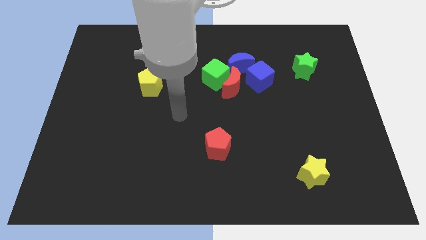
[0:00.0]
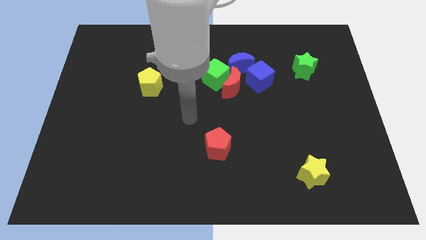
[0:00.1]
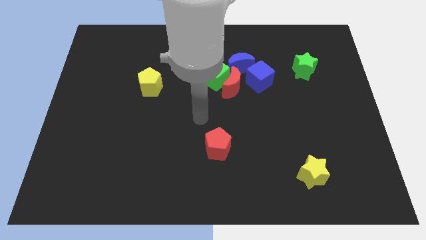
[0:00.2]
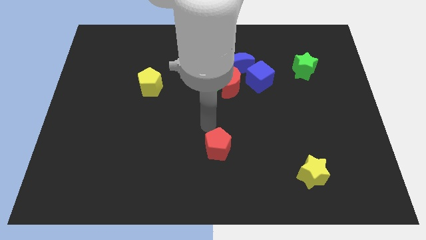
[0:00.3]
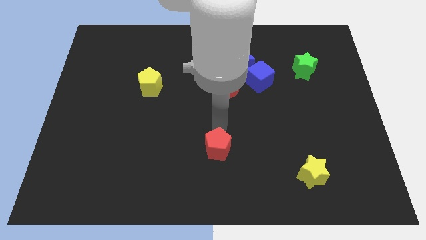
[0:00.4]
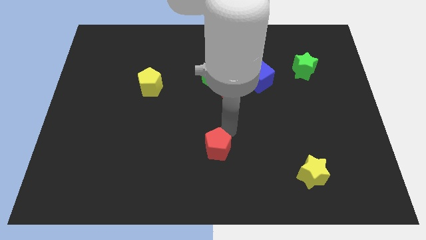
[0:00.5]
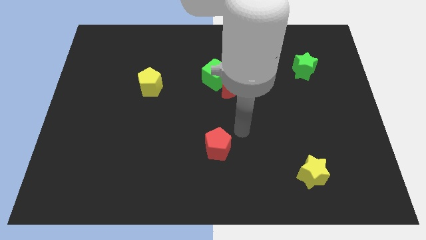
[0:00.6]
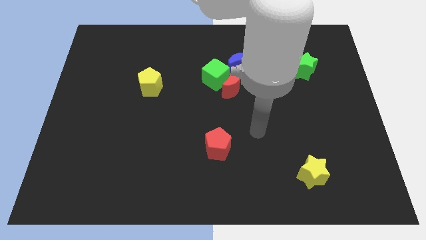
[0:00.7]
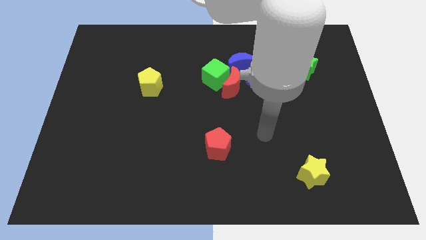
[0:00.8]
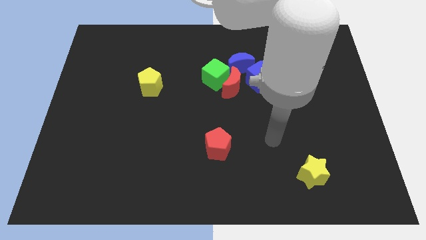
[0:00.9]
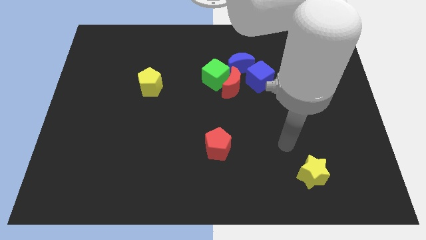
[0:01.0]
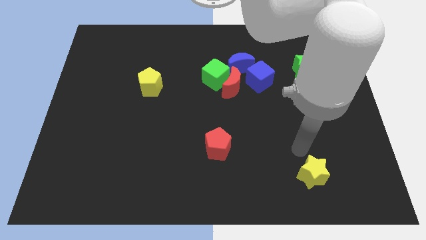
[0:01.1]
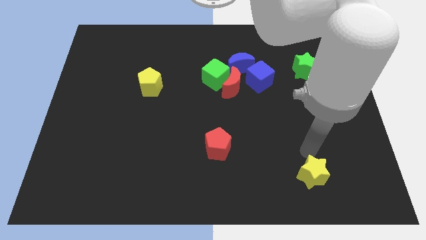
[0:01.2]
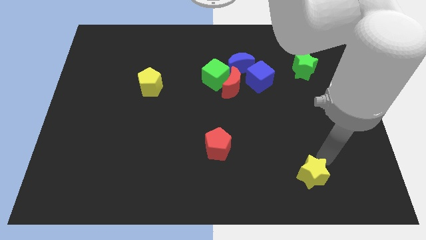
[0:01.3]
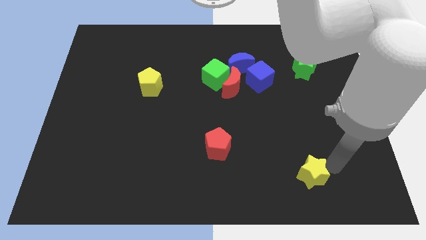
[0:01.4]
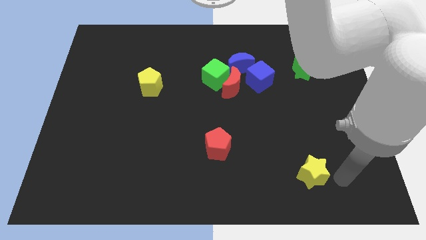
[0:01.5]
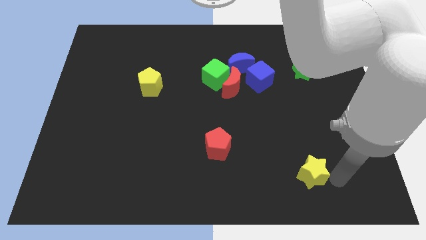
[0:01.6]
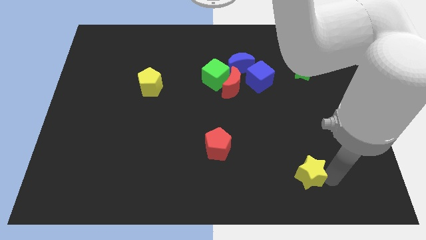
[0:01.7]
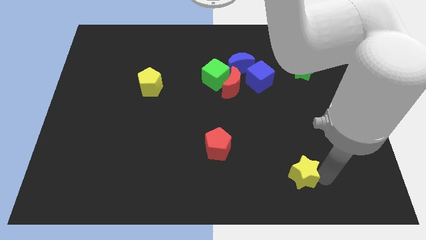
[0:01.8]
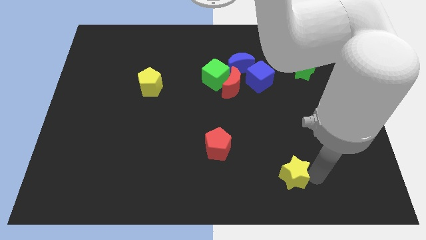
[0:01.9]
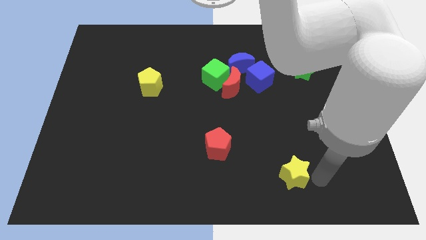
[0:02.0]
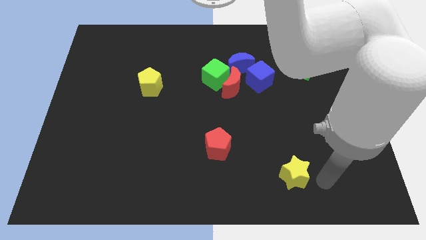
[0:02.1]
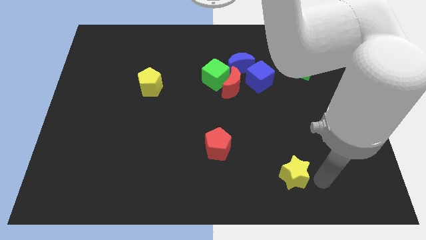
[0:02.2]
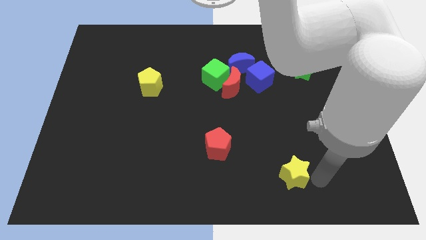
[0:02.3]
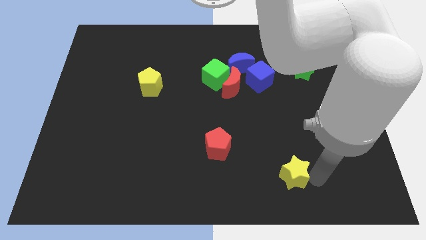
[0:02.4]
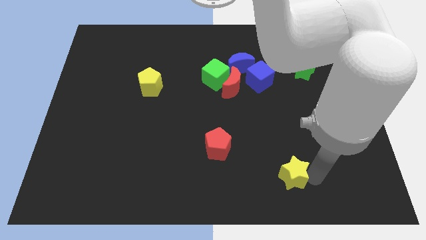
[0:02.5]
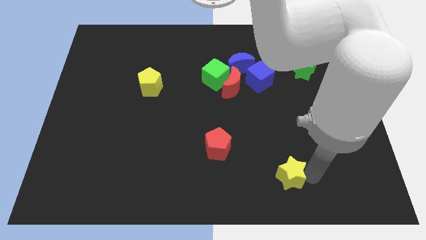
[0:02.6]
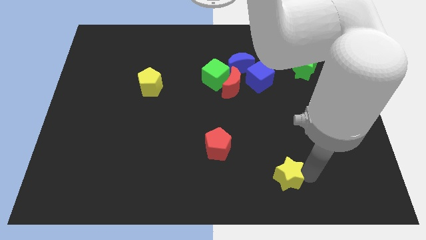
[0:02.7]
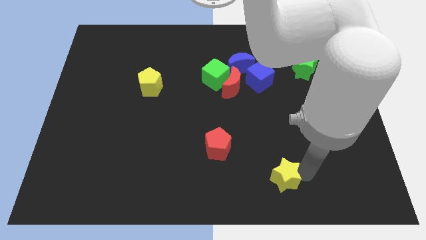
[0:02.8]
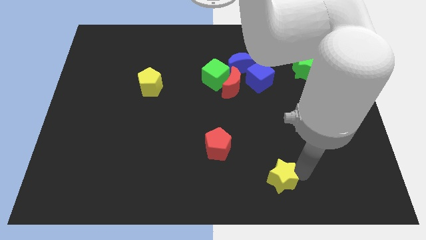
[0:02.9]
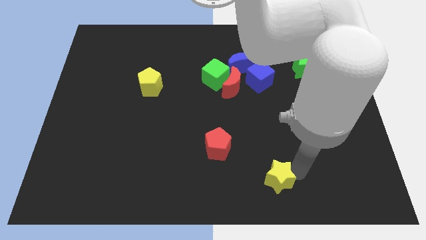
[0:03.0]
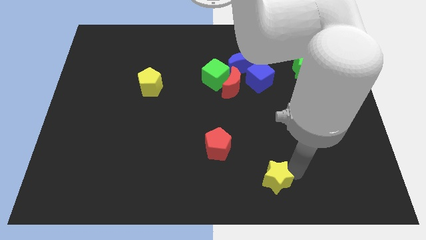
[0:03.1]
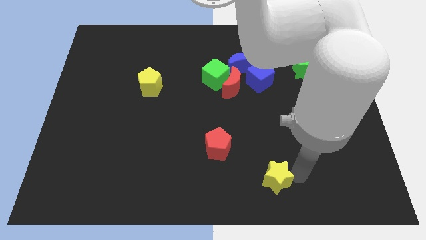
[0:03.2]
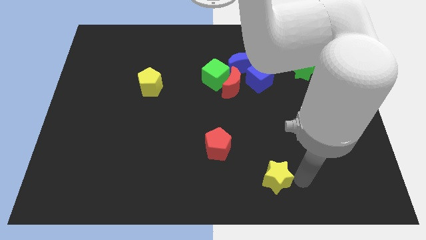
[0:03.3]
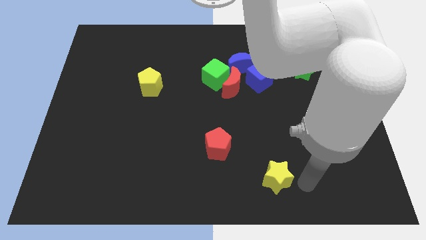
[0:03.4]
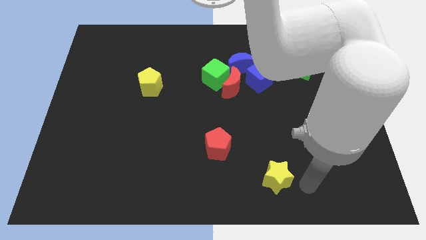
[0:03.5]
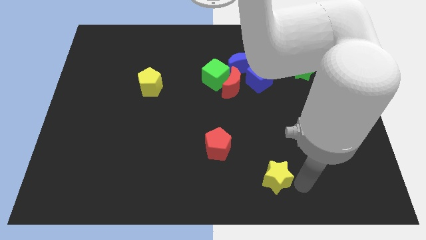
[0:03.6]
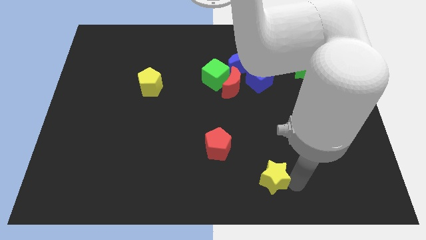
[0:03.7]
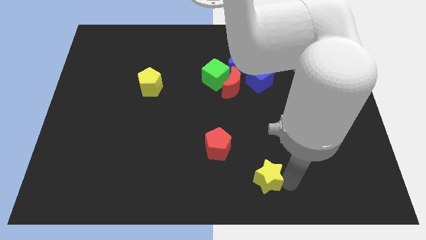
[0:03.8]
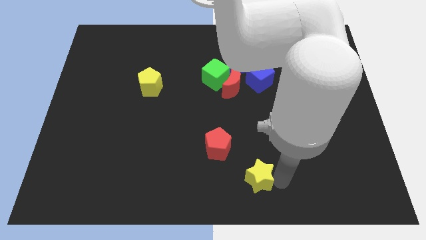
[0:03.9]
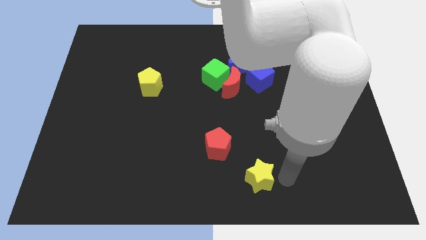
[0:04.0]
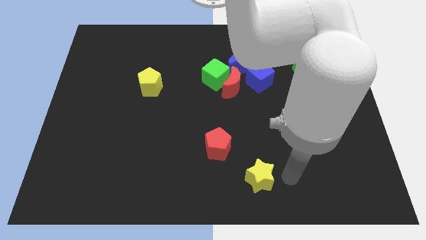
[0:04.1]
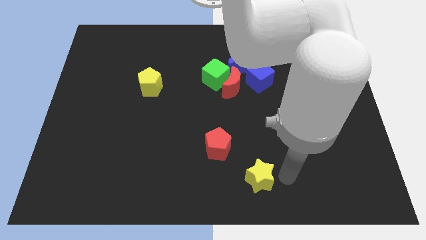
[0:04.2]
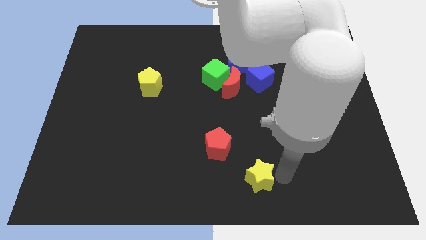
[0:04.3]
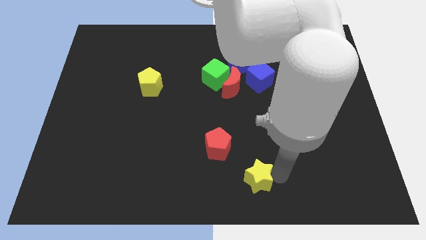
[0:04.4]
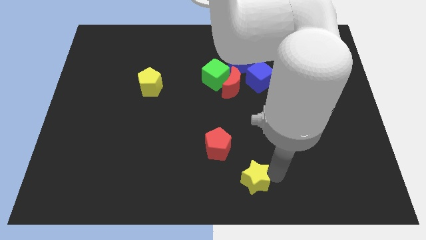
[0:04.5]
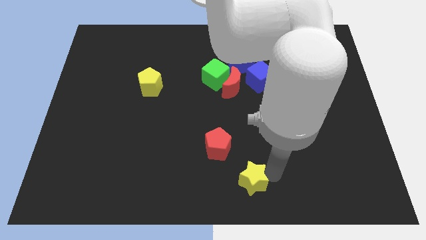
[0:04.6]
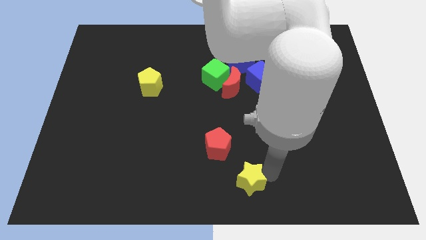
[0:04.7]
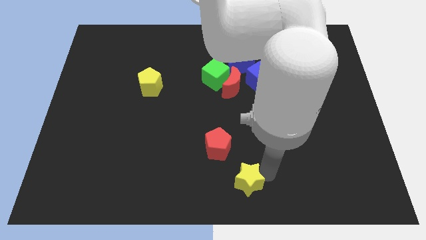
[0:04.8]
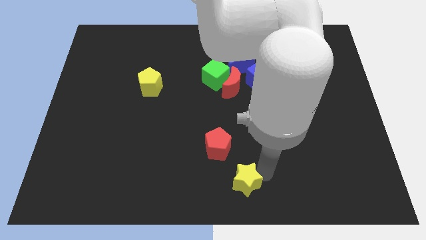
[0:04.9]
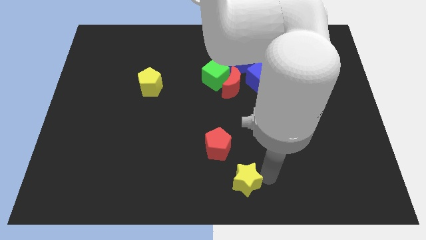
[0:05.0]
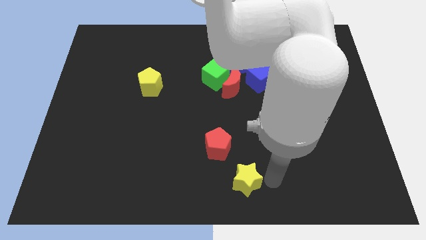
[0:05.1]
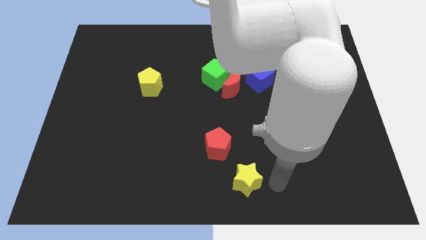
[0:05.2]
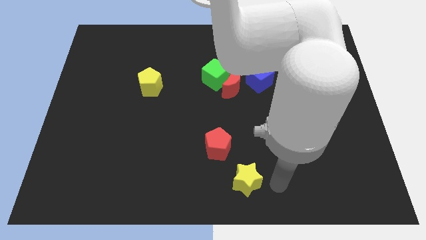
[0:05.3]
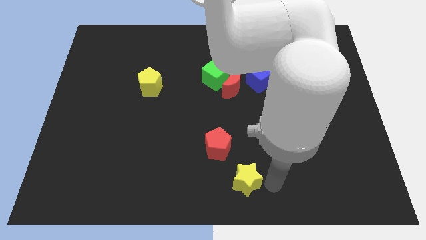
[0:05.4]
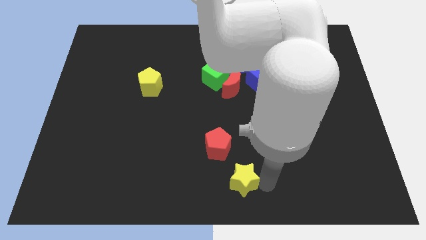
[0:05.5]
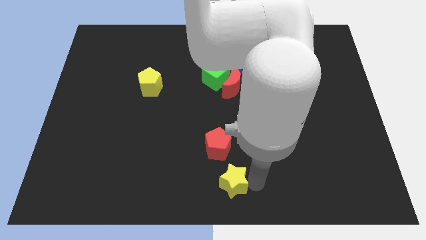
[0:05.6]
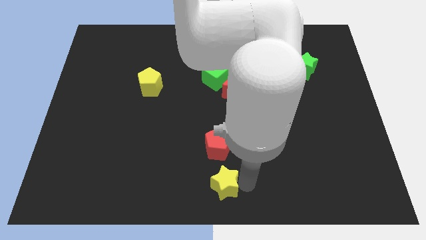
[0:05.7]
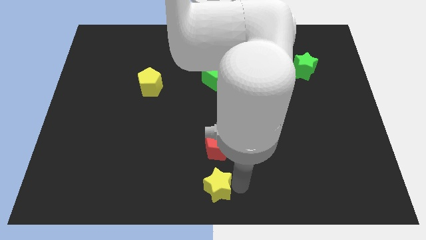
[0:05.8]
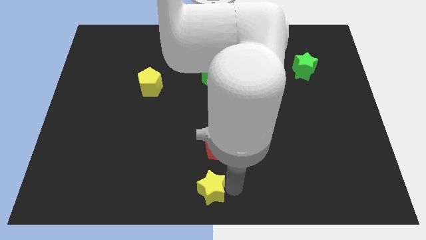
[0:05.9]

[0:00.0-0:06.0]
push the yellow star left

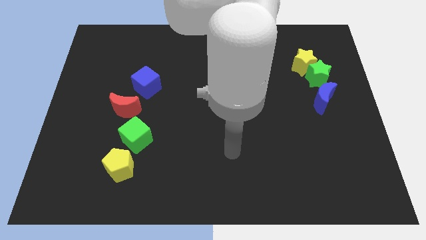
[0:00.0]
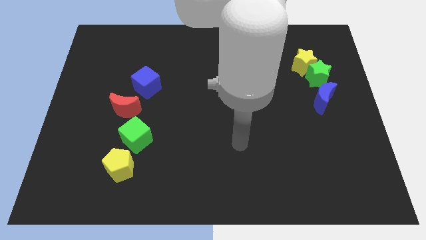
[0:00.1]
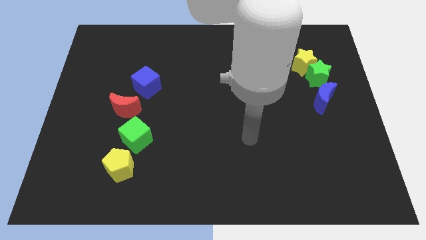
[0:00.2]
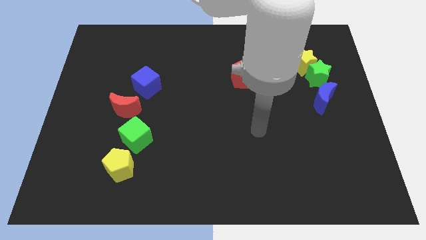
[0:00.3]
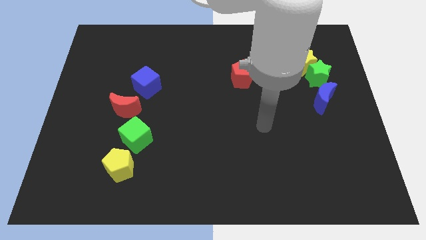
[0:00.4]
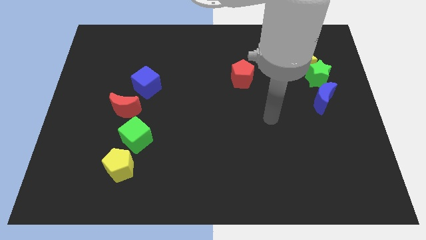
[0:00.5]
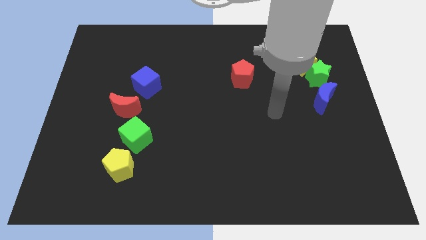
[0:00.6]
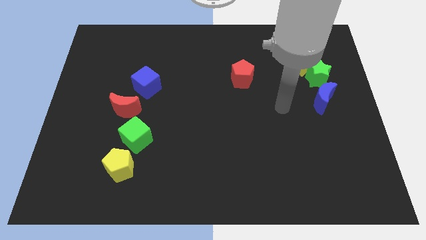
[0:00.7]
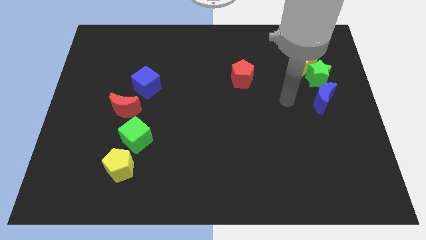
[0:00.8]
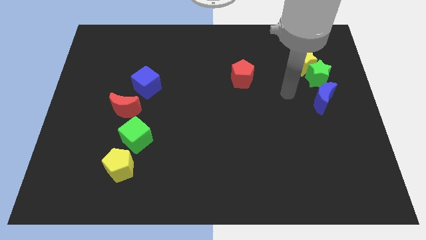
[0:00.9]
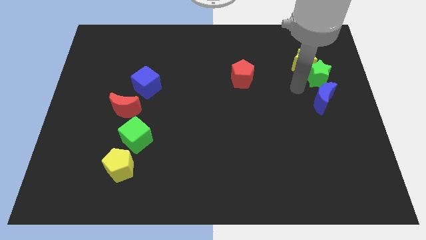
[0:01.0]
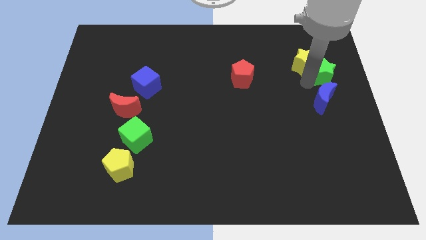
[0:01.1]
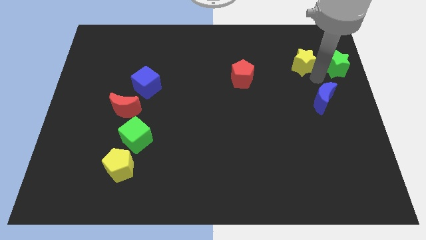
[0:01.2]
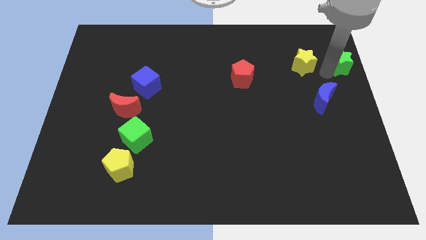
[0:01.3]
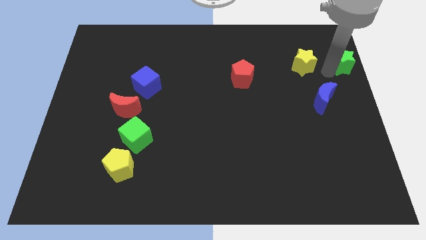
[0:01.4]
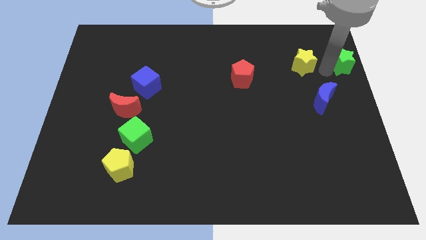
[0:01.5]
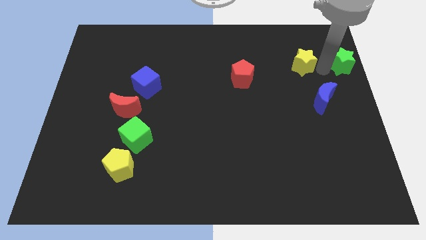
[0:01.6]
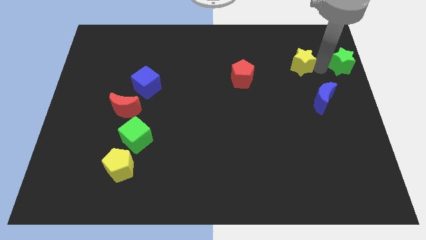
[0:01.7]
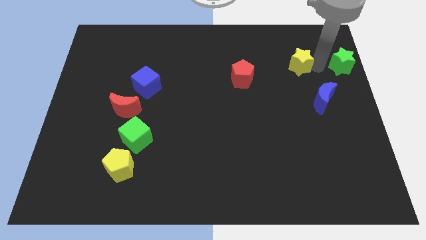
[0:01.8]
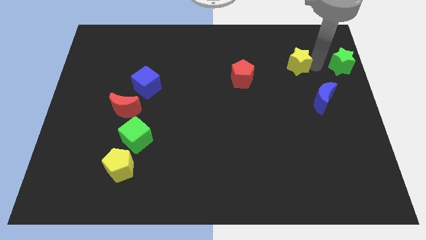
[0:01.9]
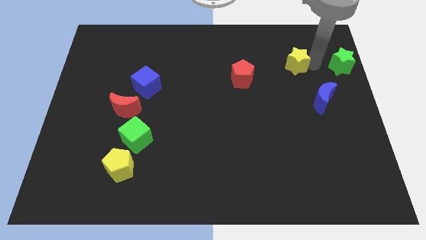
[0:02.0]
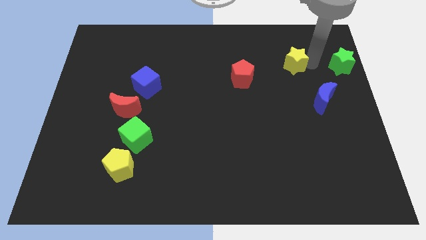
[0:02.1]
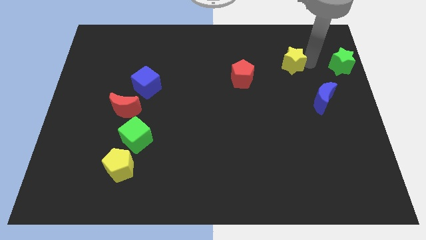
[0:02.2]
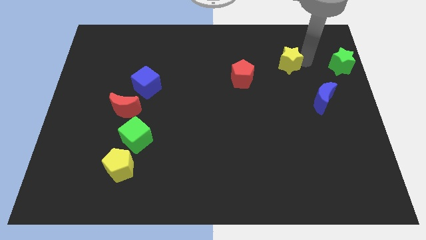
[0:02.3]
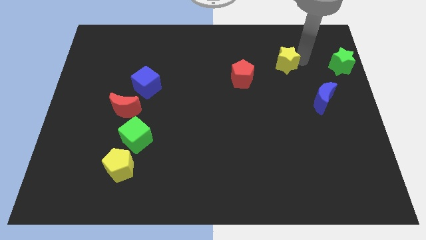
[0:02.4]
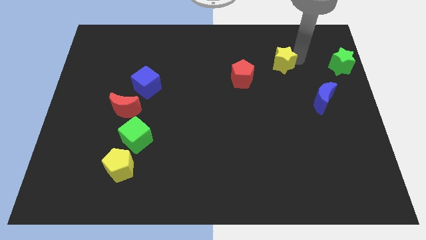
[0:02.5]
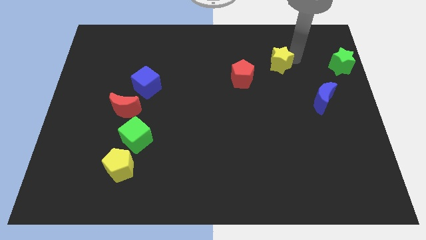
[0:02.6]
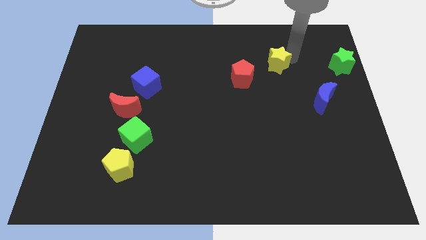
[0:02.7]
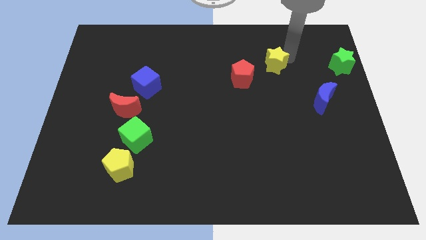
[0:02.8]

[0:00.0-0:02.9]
slide the yellow star to the left a bit
